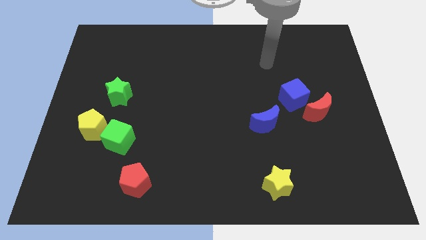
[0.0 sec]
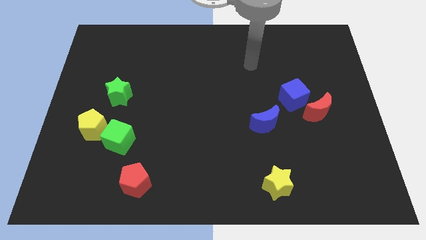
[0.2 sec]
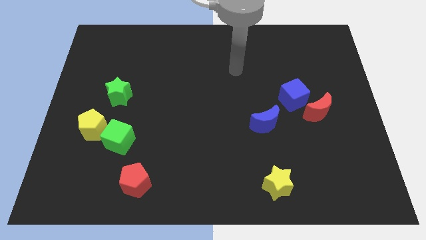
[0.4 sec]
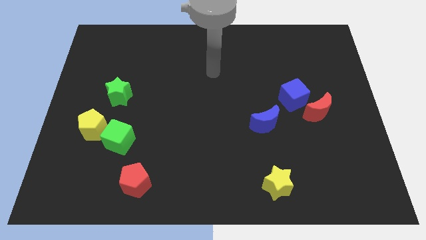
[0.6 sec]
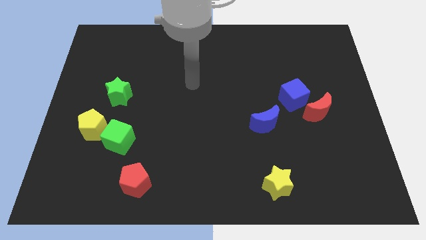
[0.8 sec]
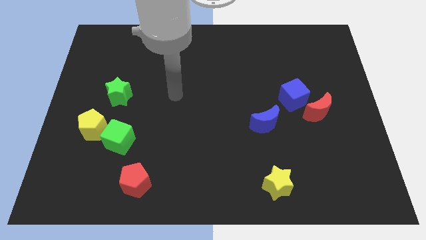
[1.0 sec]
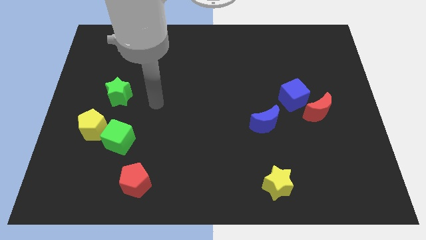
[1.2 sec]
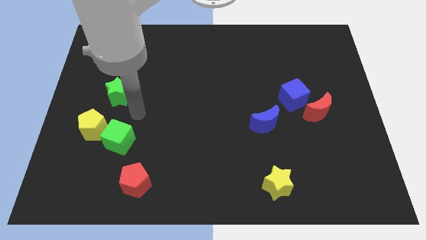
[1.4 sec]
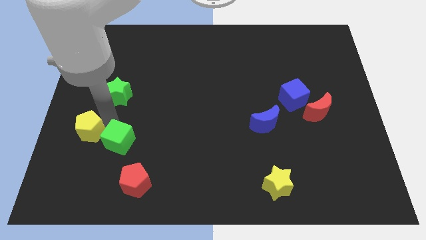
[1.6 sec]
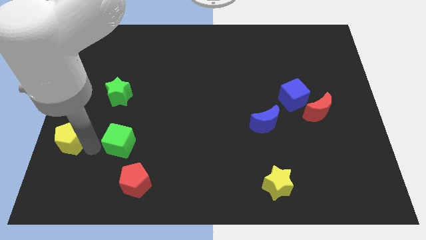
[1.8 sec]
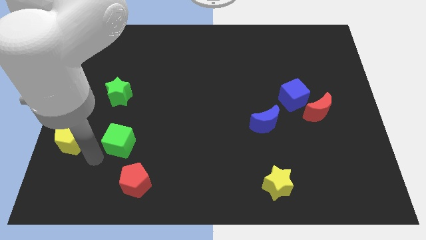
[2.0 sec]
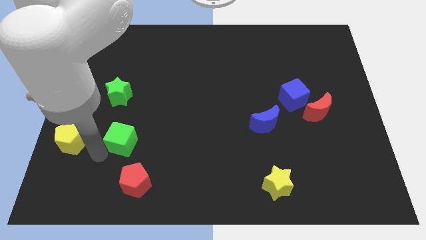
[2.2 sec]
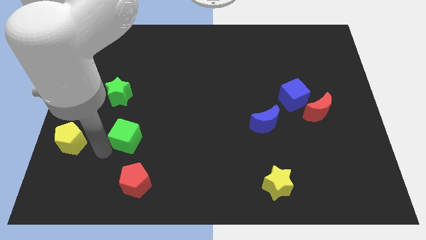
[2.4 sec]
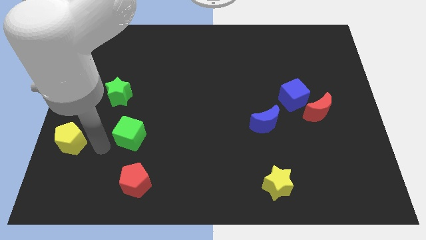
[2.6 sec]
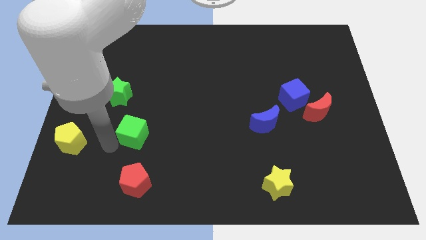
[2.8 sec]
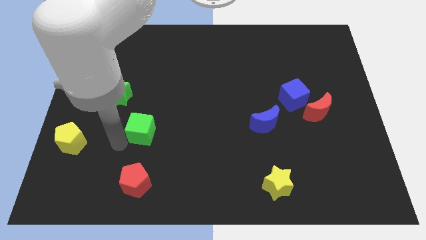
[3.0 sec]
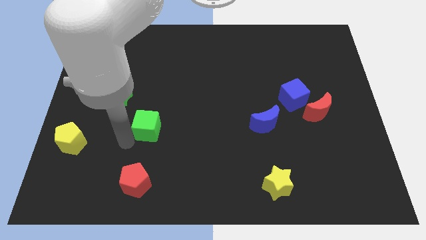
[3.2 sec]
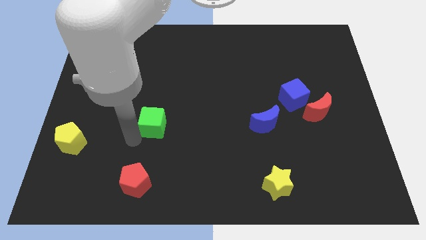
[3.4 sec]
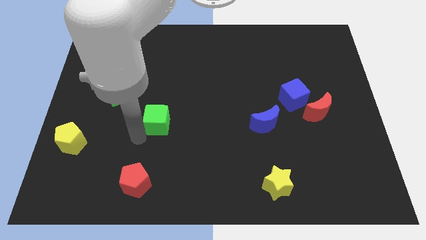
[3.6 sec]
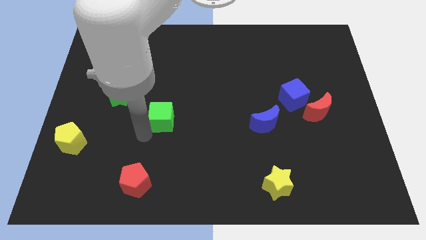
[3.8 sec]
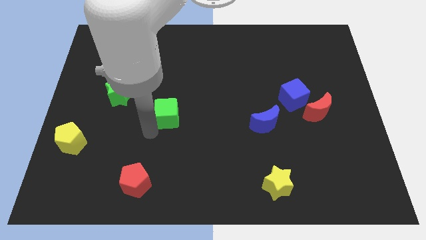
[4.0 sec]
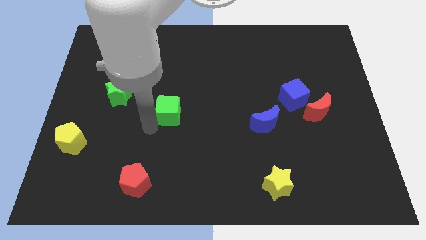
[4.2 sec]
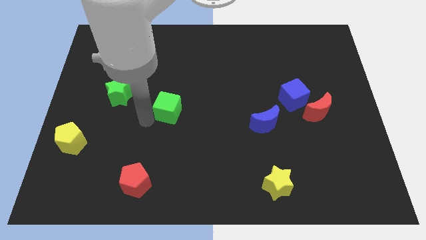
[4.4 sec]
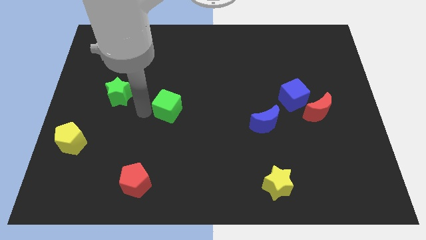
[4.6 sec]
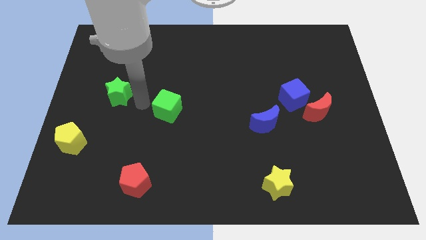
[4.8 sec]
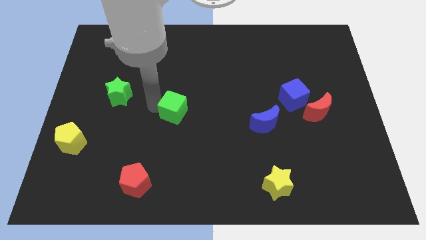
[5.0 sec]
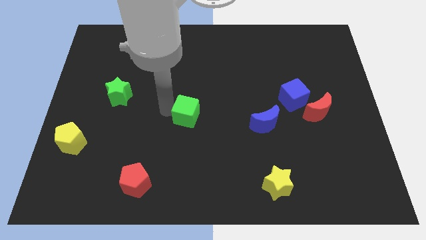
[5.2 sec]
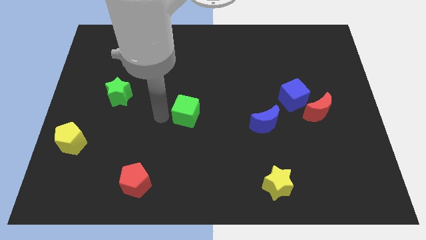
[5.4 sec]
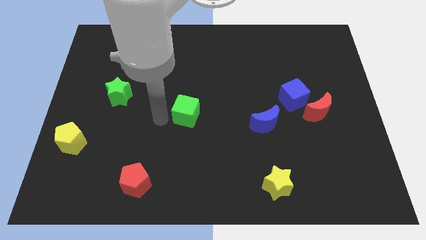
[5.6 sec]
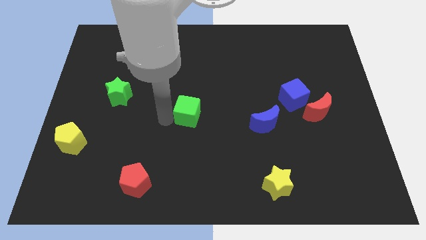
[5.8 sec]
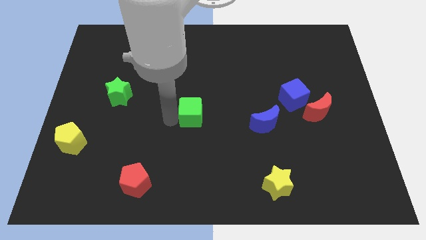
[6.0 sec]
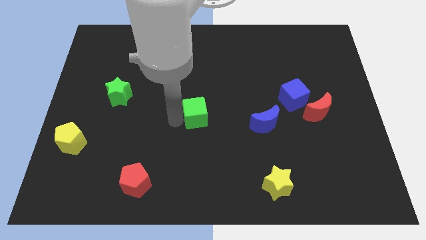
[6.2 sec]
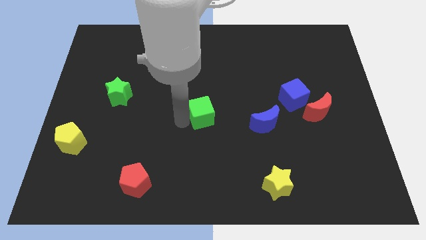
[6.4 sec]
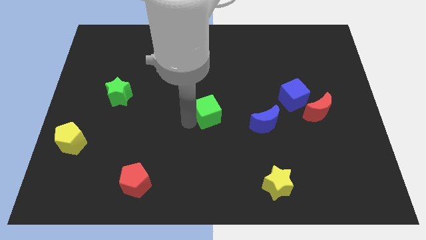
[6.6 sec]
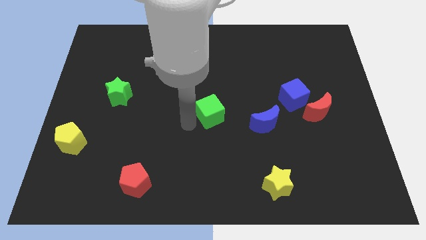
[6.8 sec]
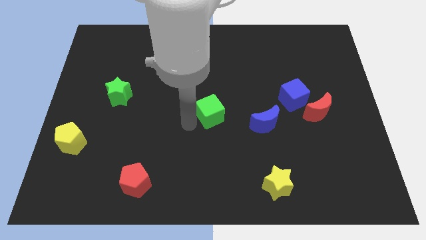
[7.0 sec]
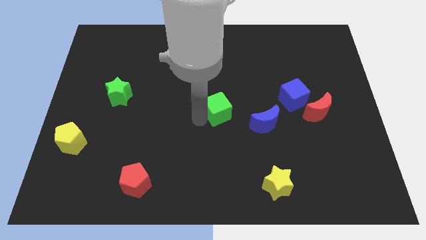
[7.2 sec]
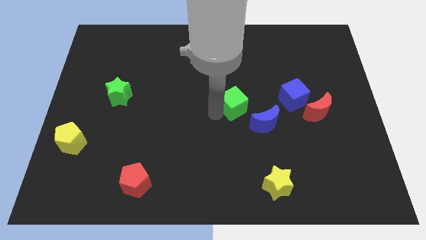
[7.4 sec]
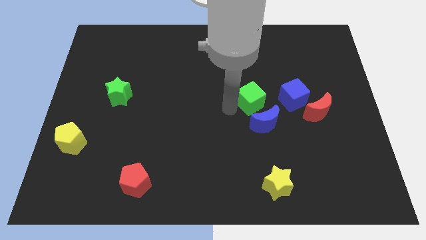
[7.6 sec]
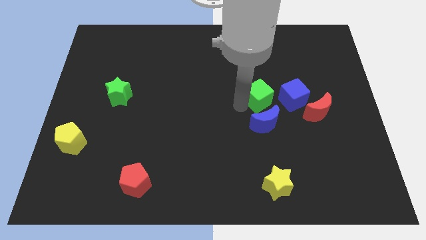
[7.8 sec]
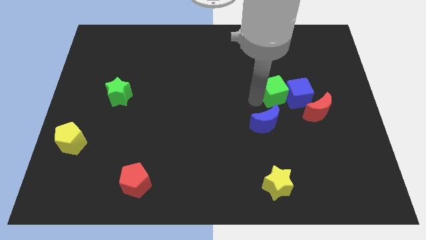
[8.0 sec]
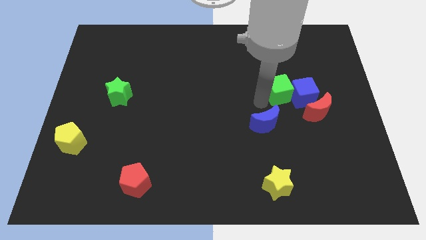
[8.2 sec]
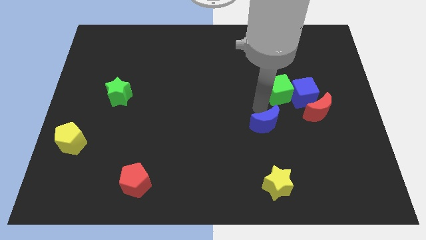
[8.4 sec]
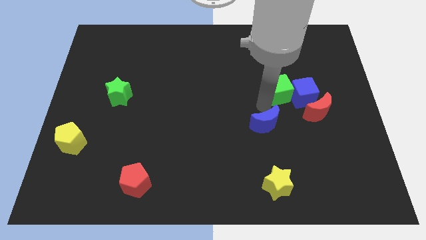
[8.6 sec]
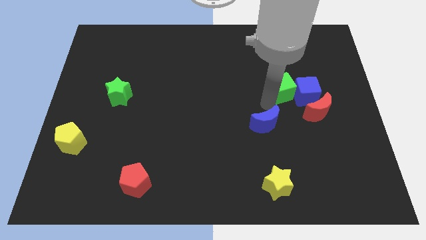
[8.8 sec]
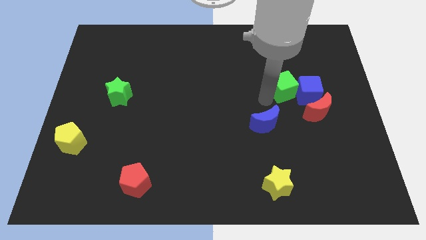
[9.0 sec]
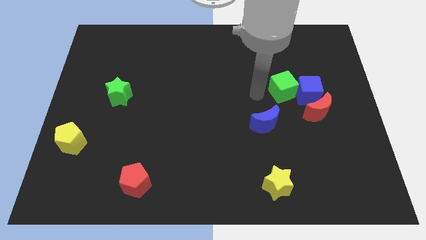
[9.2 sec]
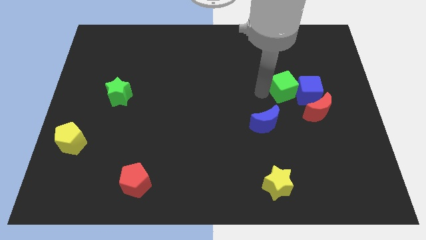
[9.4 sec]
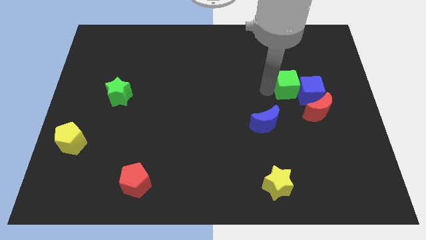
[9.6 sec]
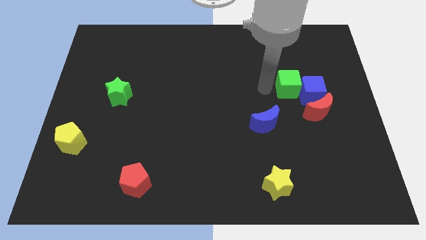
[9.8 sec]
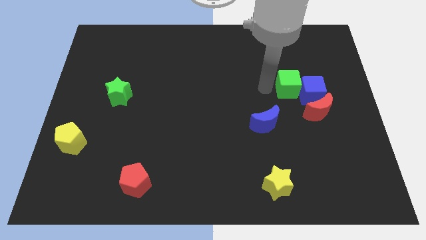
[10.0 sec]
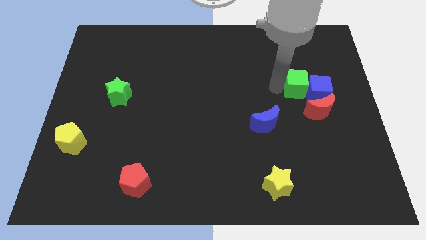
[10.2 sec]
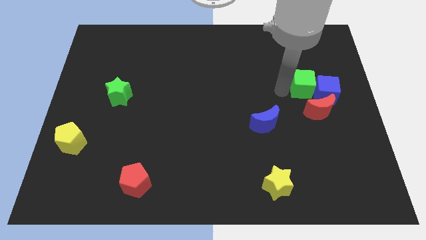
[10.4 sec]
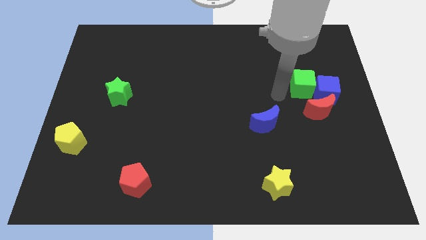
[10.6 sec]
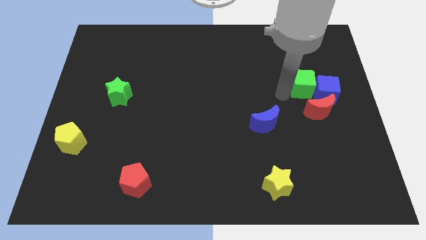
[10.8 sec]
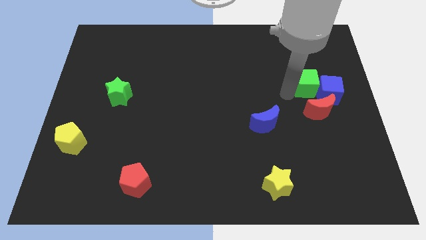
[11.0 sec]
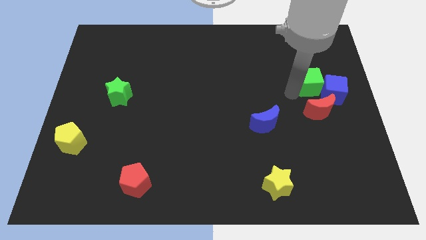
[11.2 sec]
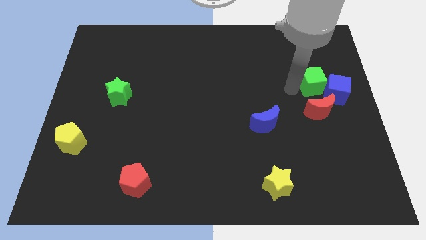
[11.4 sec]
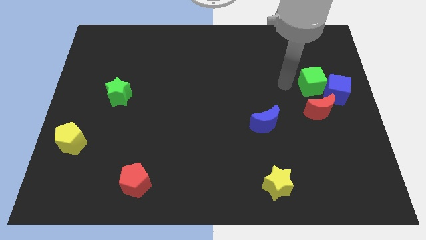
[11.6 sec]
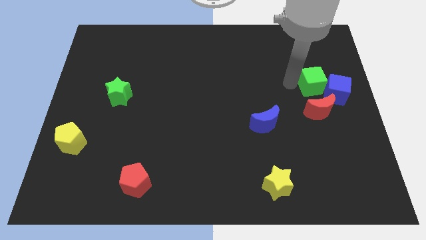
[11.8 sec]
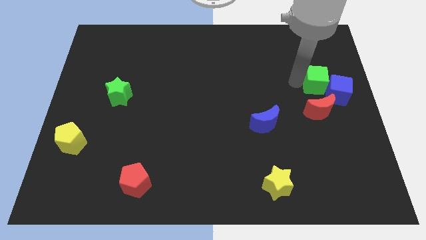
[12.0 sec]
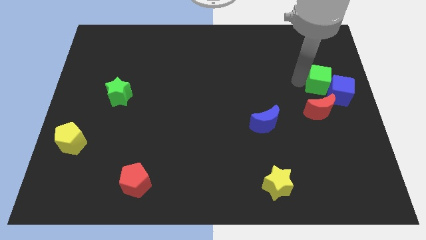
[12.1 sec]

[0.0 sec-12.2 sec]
put the green cube to the right side of the board

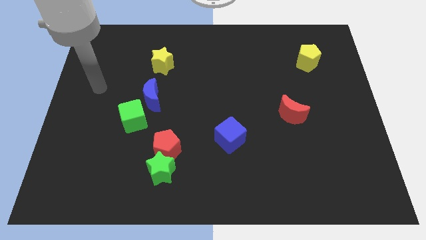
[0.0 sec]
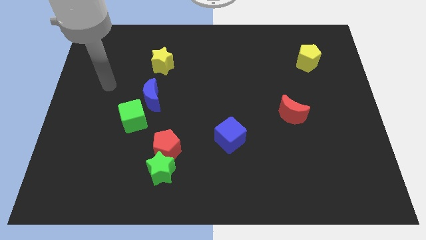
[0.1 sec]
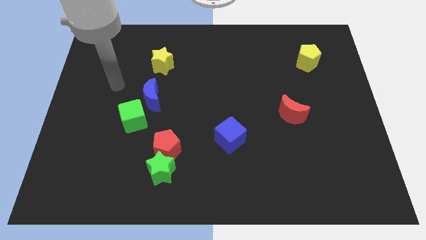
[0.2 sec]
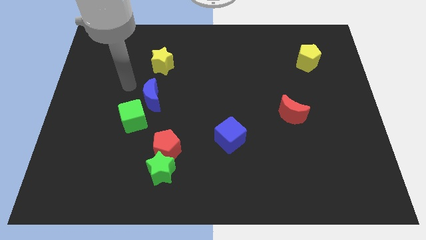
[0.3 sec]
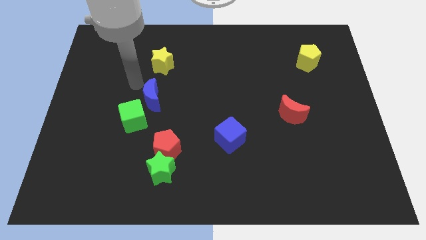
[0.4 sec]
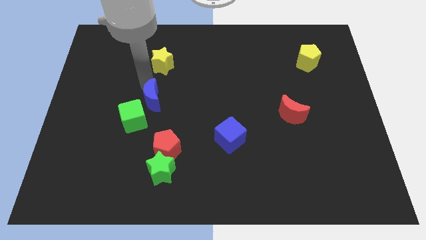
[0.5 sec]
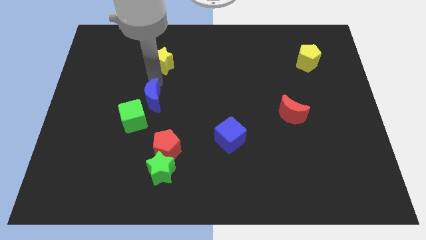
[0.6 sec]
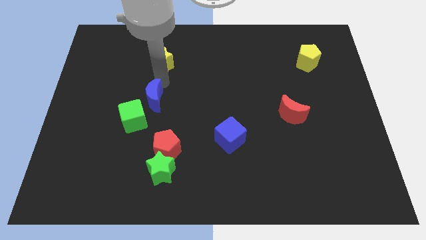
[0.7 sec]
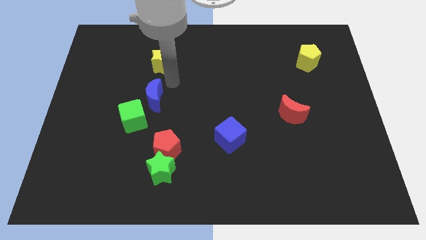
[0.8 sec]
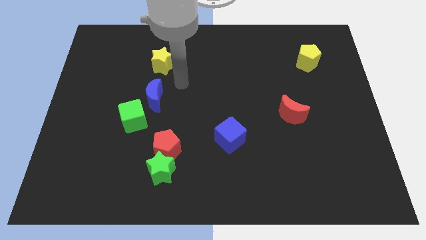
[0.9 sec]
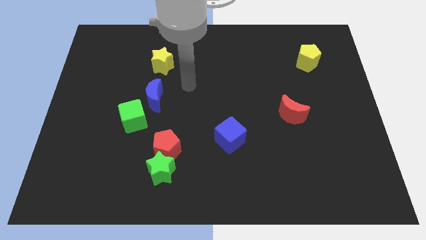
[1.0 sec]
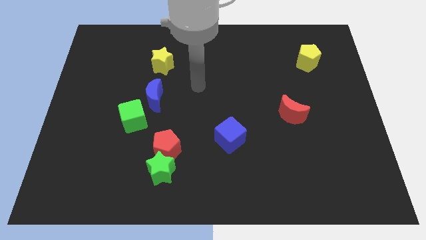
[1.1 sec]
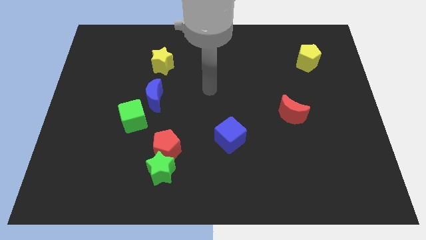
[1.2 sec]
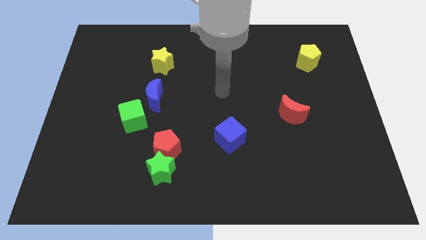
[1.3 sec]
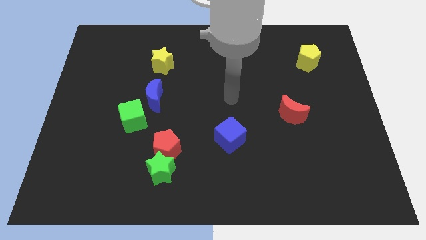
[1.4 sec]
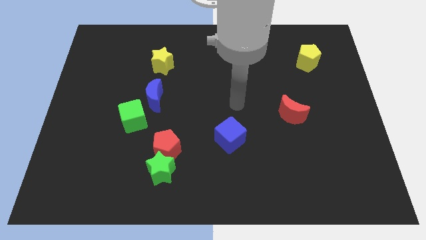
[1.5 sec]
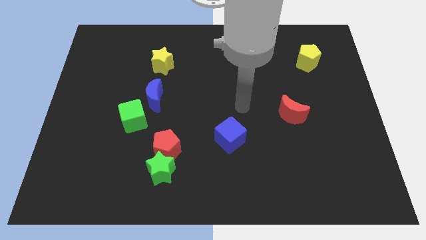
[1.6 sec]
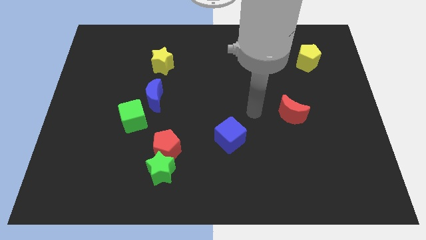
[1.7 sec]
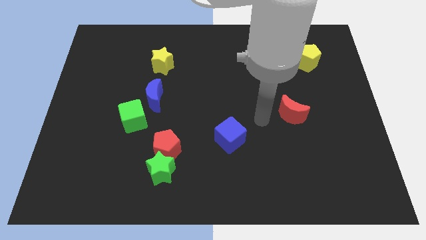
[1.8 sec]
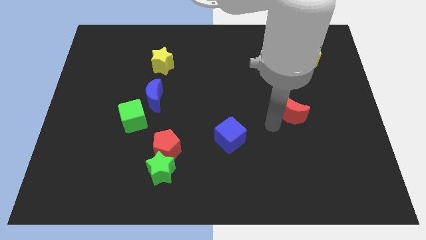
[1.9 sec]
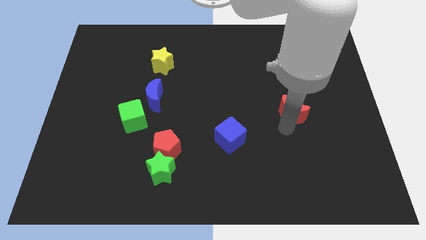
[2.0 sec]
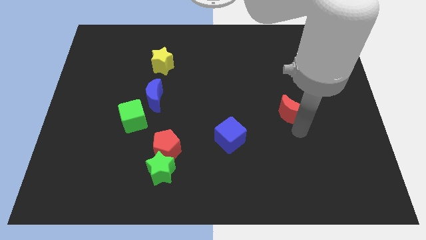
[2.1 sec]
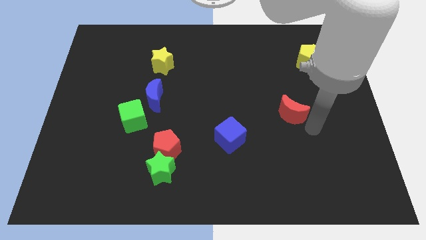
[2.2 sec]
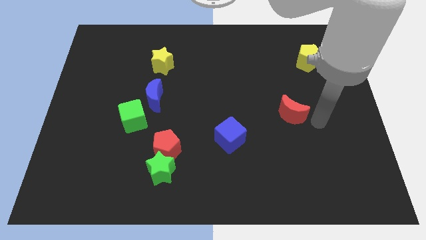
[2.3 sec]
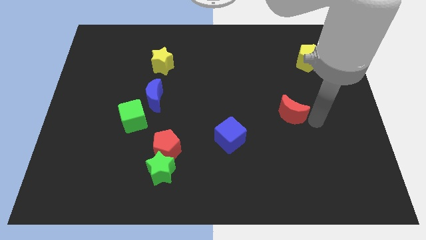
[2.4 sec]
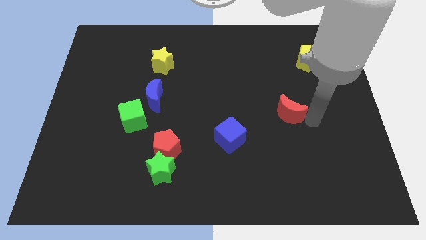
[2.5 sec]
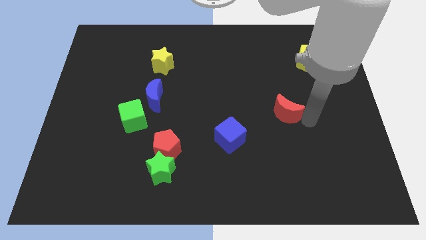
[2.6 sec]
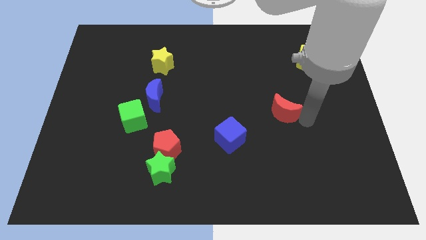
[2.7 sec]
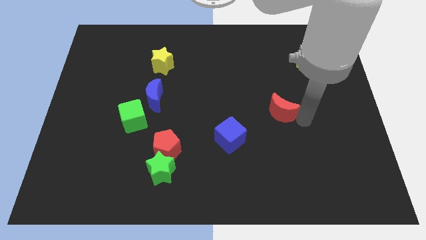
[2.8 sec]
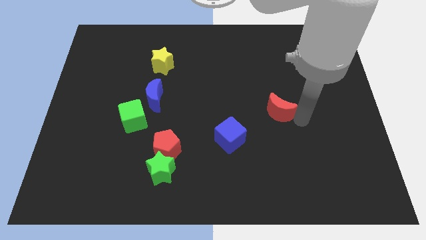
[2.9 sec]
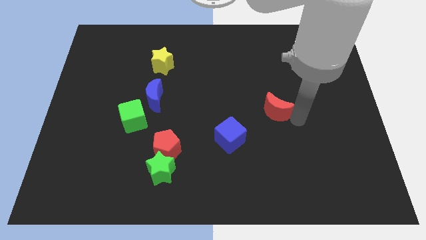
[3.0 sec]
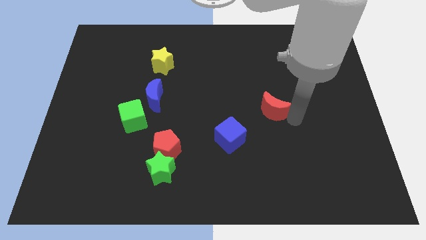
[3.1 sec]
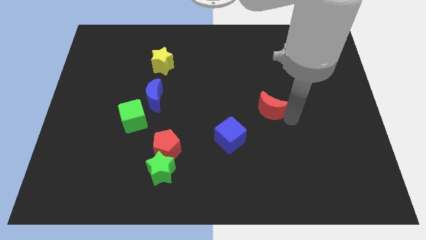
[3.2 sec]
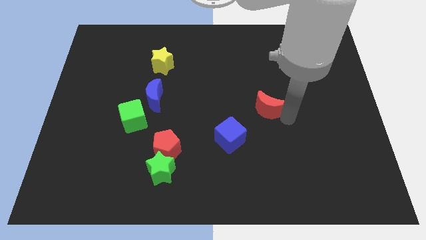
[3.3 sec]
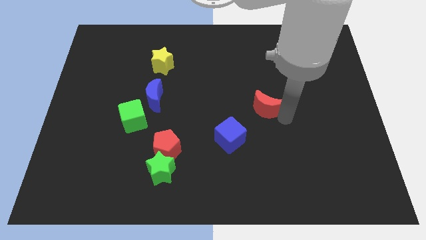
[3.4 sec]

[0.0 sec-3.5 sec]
move the red moon to the middle
